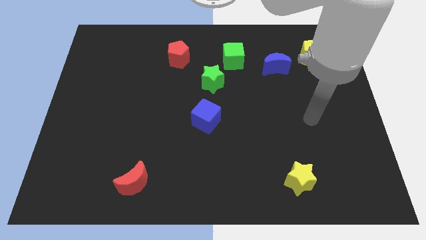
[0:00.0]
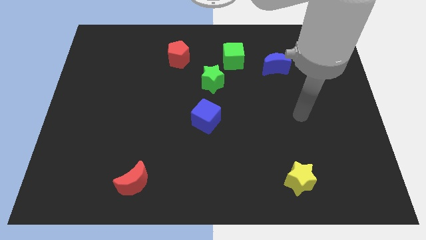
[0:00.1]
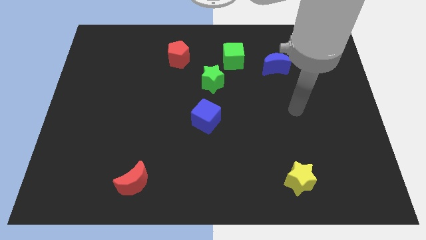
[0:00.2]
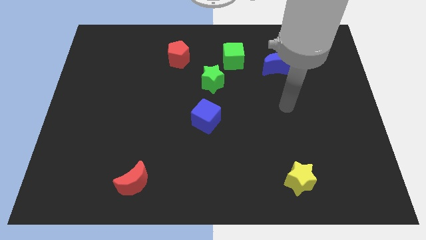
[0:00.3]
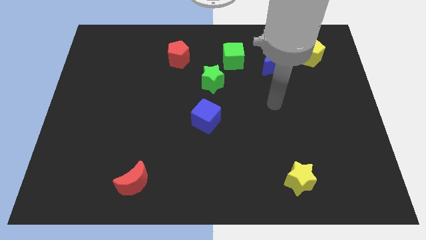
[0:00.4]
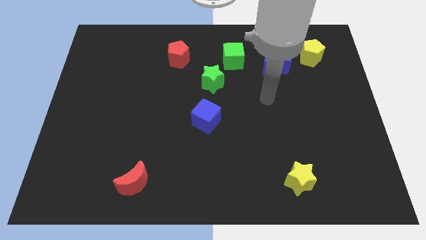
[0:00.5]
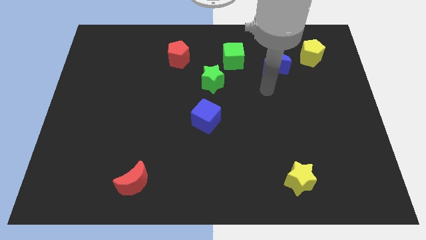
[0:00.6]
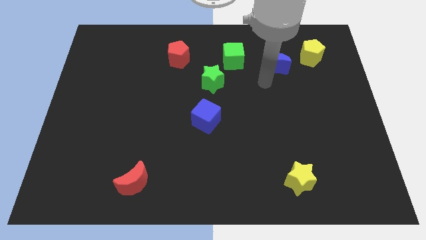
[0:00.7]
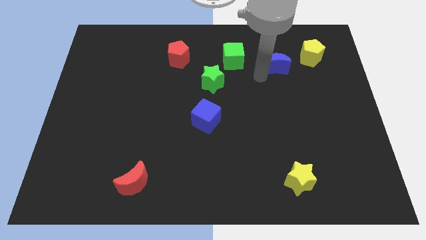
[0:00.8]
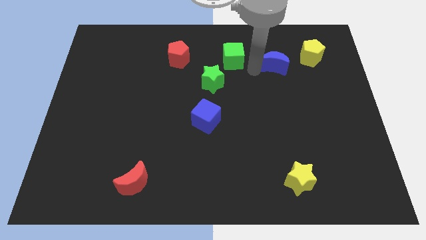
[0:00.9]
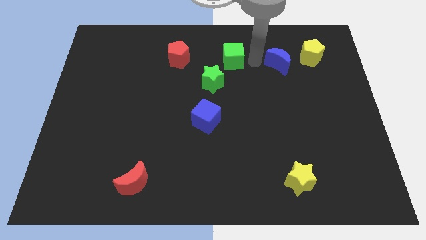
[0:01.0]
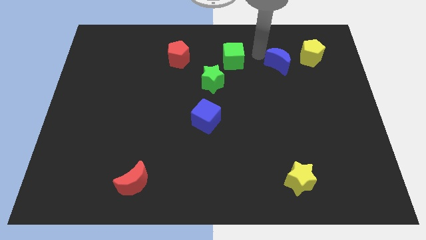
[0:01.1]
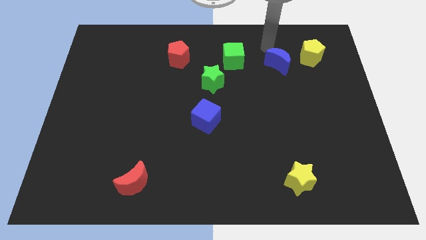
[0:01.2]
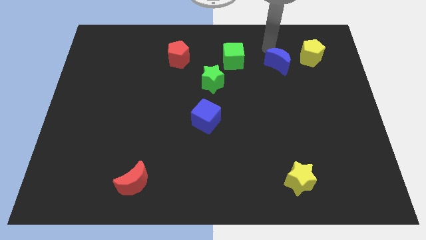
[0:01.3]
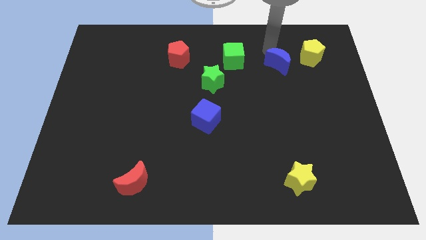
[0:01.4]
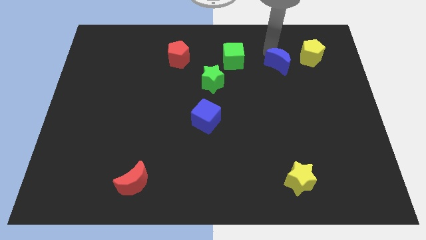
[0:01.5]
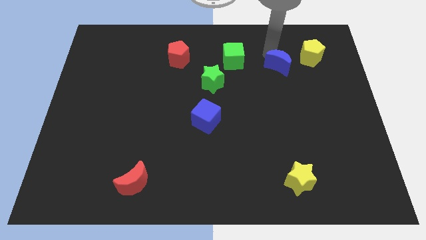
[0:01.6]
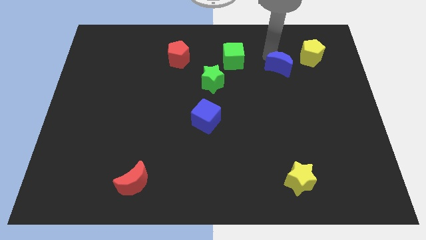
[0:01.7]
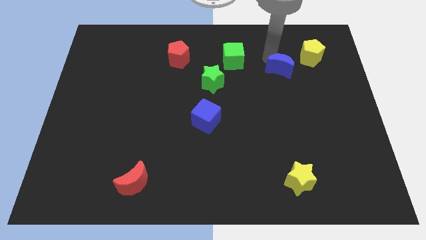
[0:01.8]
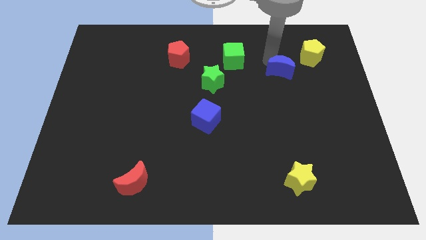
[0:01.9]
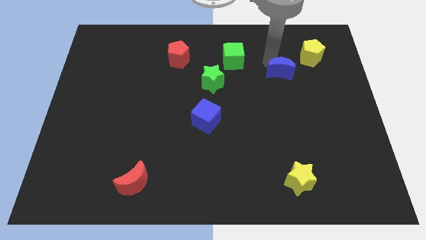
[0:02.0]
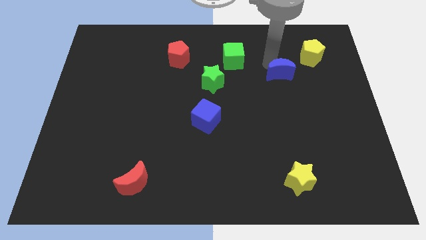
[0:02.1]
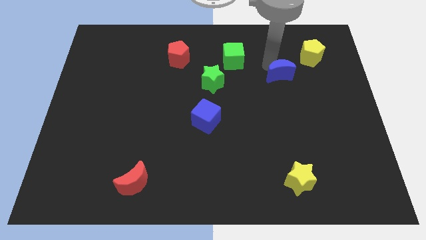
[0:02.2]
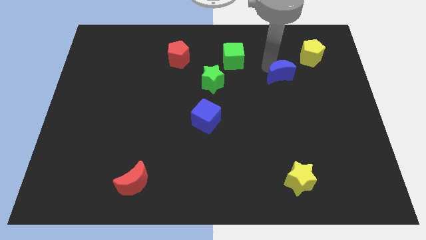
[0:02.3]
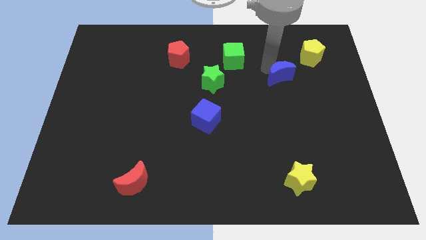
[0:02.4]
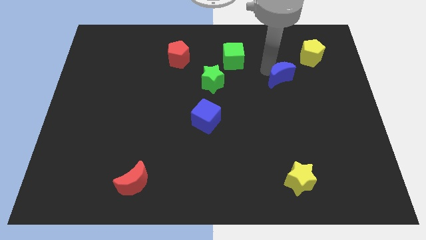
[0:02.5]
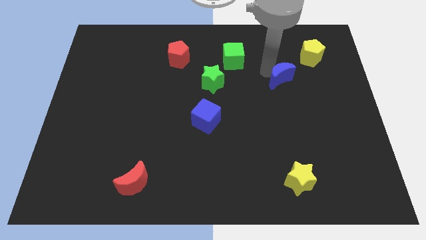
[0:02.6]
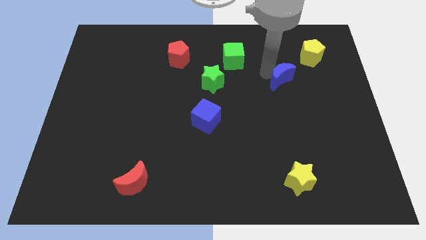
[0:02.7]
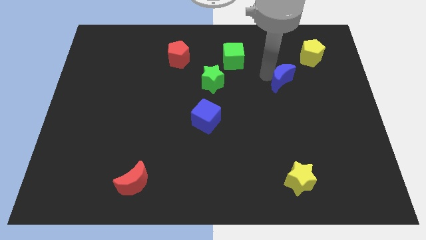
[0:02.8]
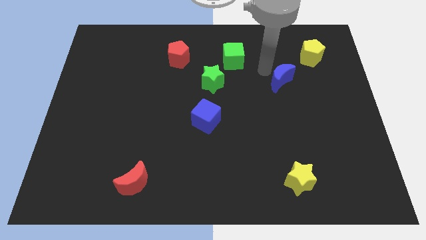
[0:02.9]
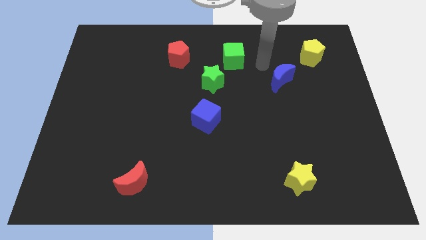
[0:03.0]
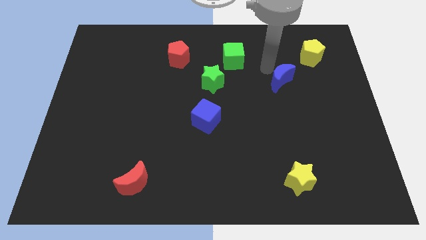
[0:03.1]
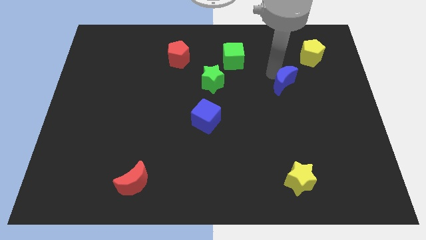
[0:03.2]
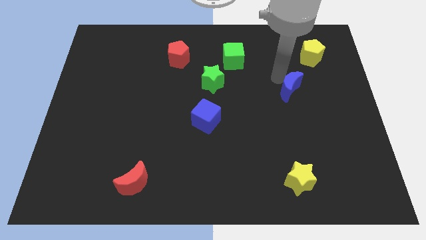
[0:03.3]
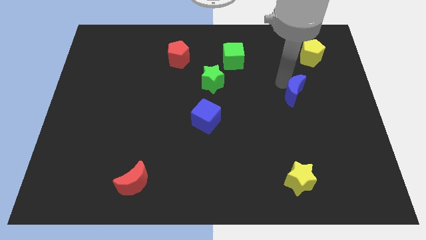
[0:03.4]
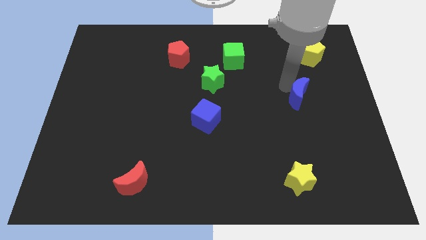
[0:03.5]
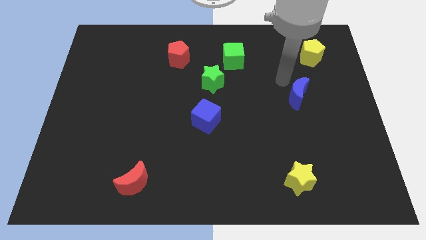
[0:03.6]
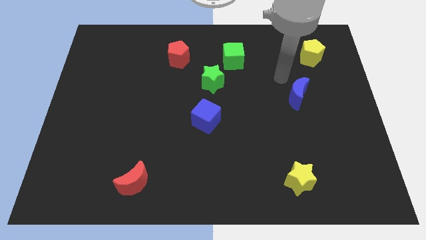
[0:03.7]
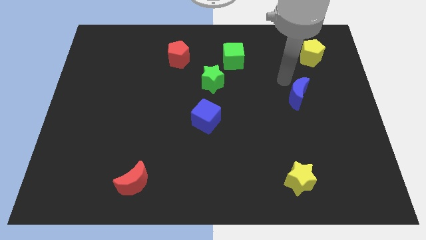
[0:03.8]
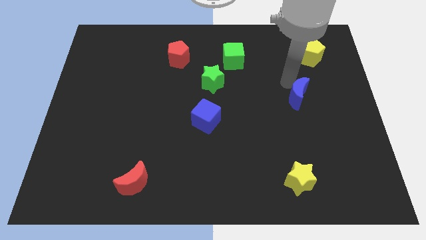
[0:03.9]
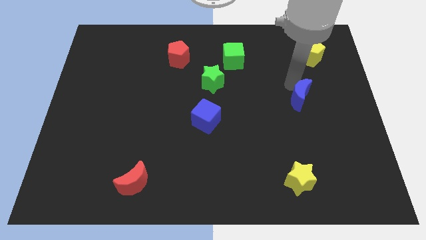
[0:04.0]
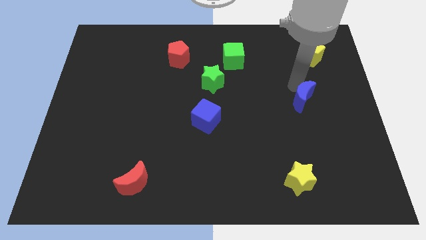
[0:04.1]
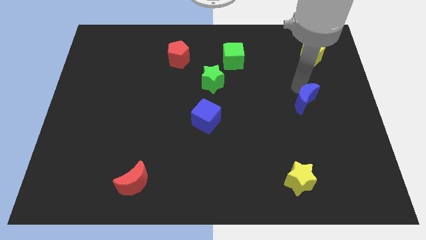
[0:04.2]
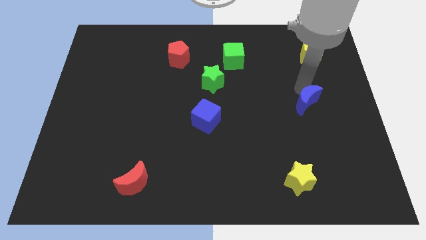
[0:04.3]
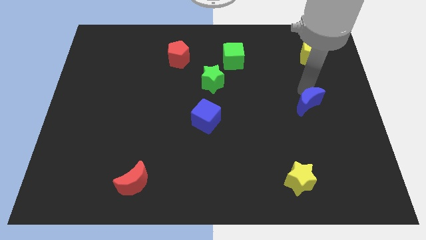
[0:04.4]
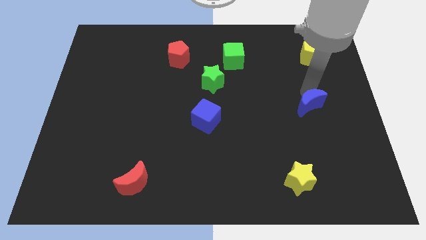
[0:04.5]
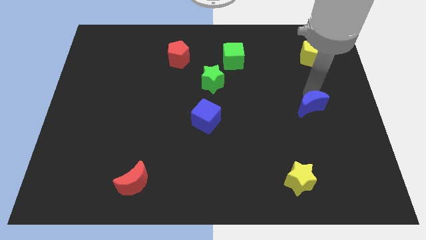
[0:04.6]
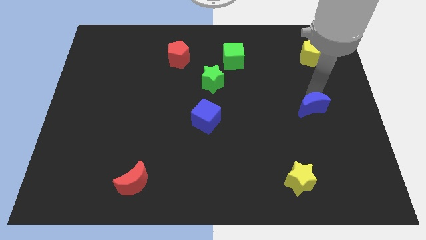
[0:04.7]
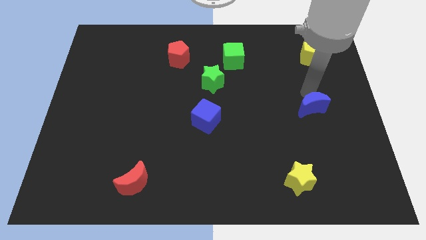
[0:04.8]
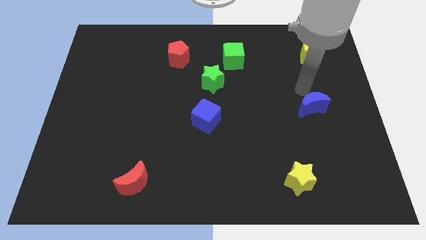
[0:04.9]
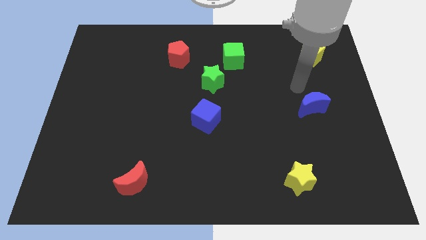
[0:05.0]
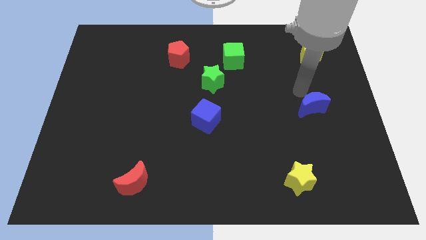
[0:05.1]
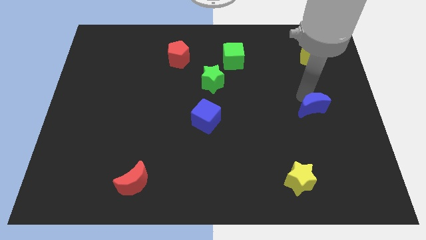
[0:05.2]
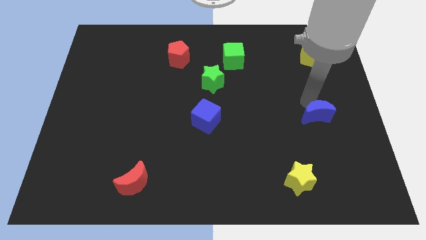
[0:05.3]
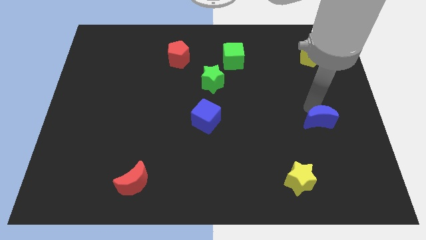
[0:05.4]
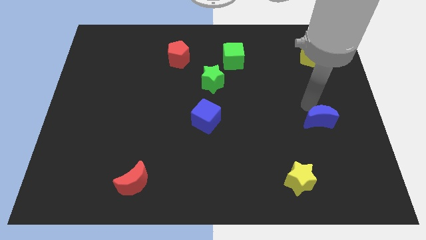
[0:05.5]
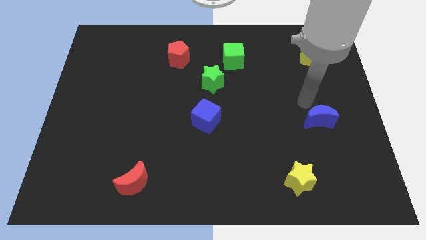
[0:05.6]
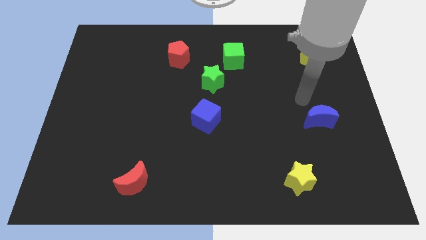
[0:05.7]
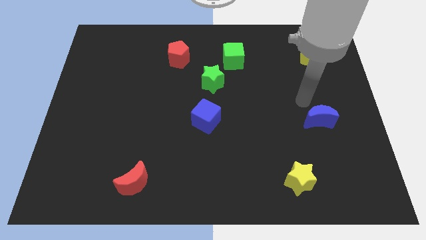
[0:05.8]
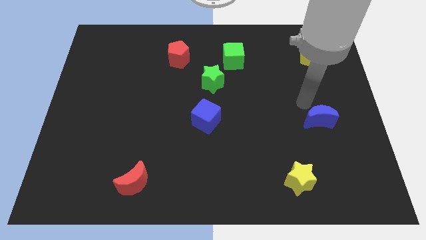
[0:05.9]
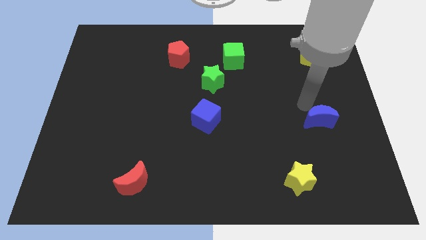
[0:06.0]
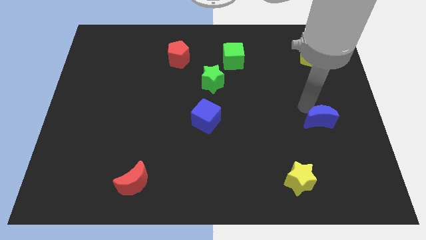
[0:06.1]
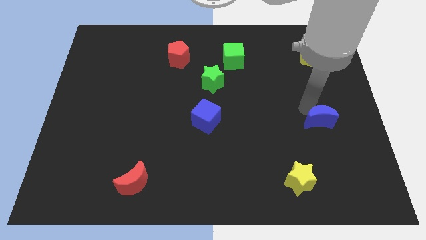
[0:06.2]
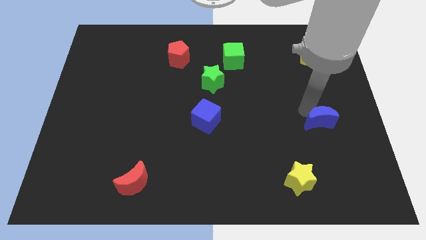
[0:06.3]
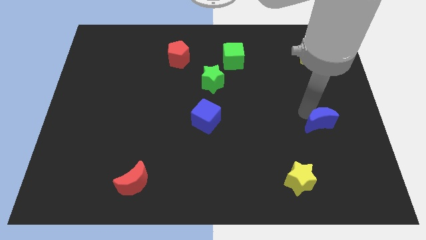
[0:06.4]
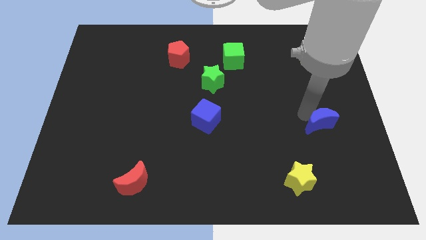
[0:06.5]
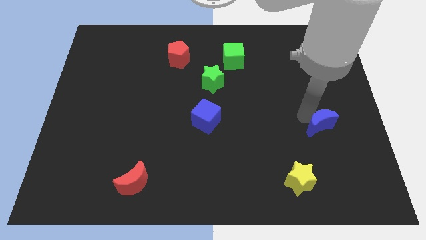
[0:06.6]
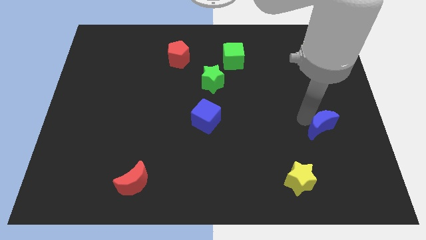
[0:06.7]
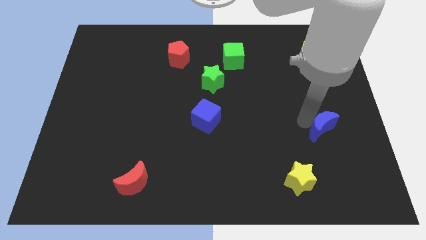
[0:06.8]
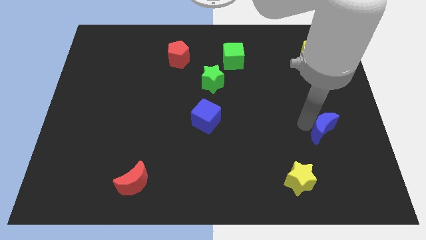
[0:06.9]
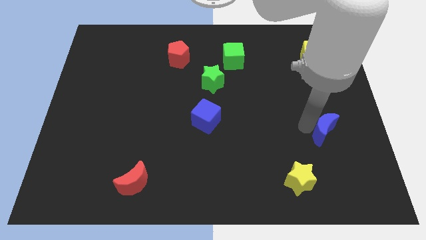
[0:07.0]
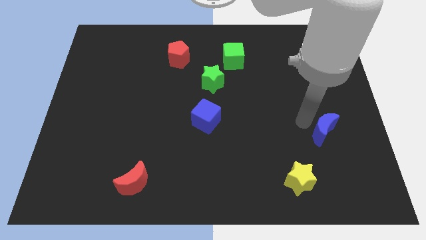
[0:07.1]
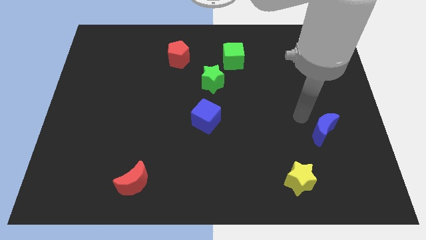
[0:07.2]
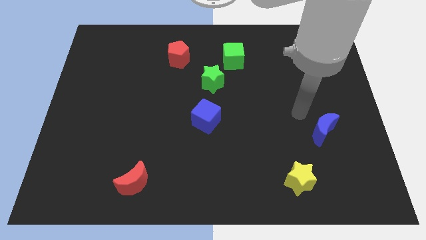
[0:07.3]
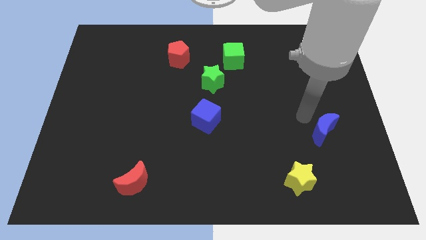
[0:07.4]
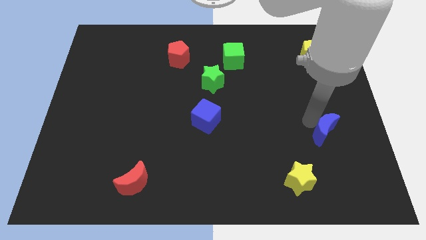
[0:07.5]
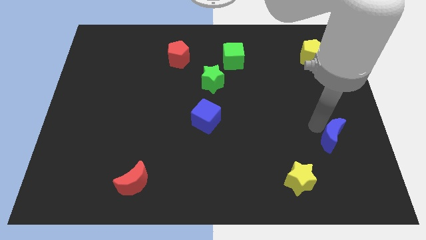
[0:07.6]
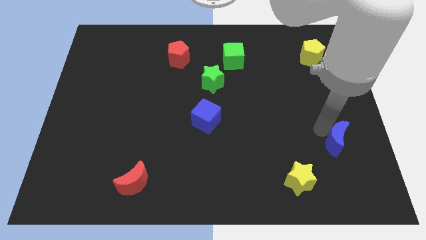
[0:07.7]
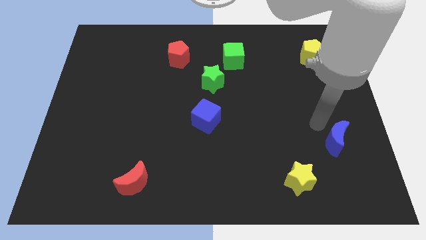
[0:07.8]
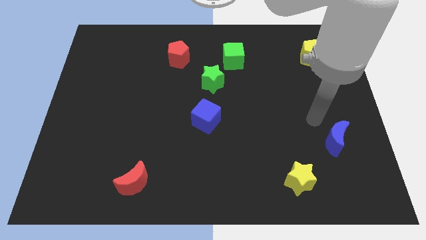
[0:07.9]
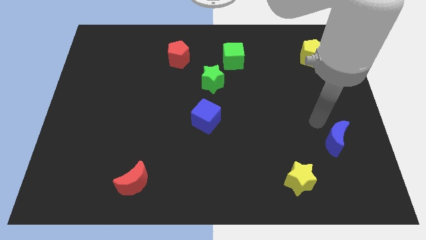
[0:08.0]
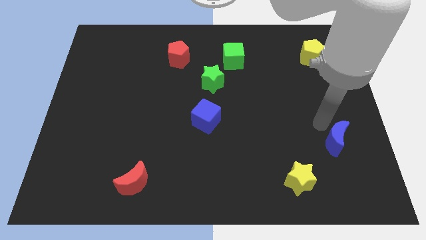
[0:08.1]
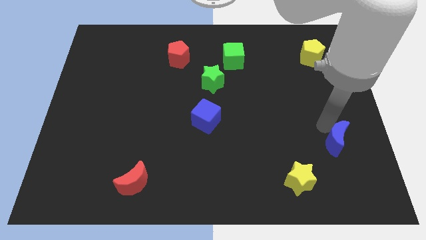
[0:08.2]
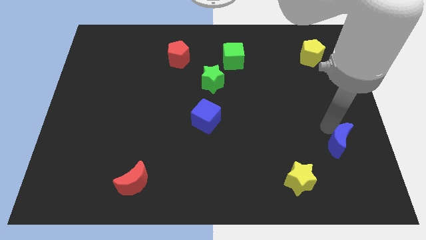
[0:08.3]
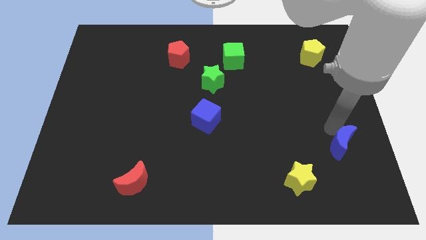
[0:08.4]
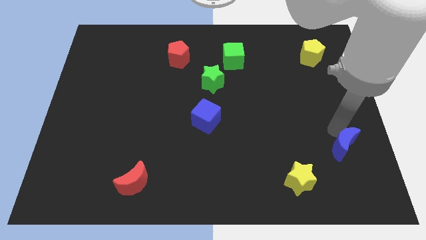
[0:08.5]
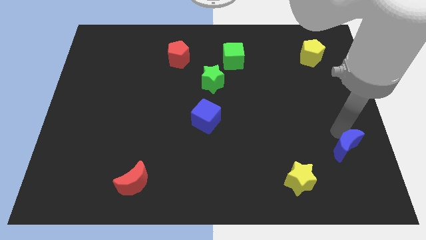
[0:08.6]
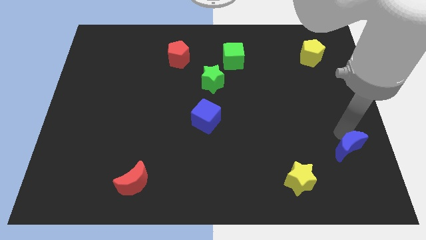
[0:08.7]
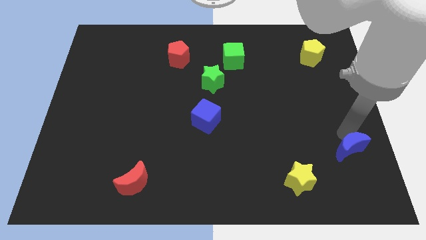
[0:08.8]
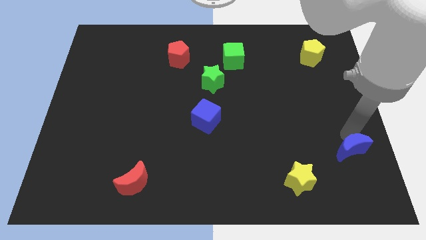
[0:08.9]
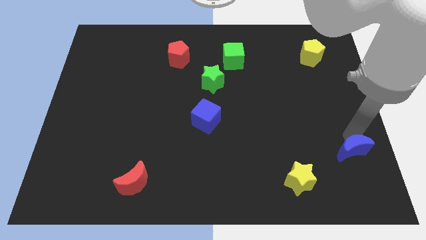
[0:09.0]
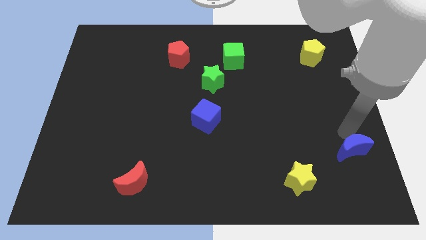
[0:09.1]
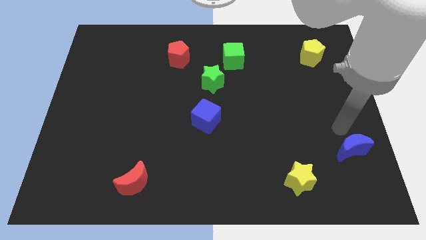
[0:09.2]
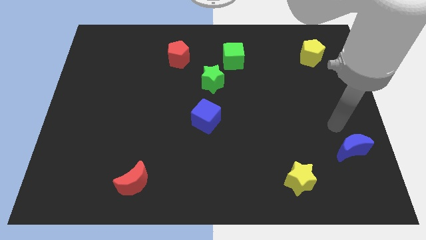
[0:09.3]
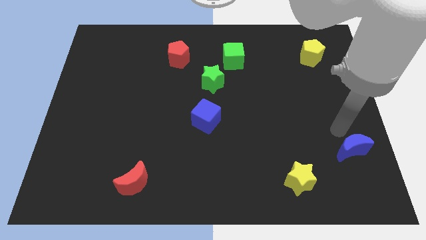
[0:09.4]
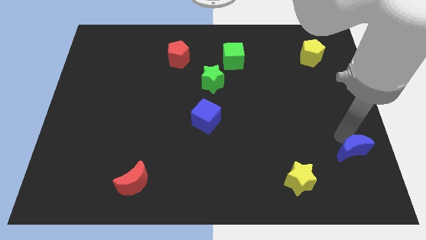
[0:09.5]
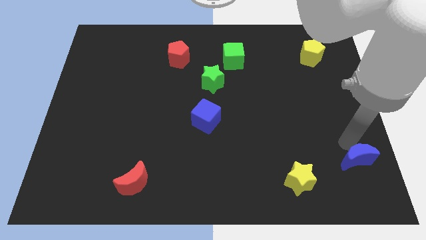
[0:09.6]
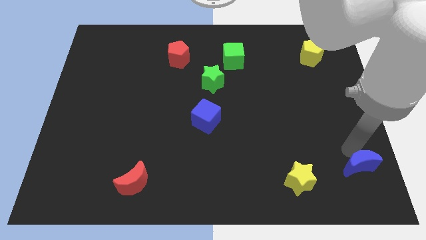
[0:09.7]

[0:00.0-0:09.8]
push the blue moon to the bottom right
